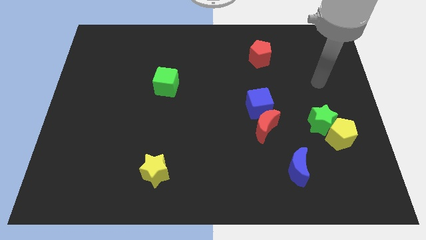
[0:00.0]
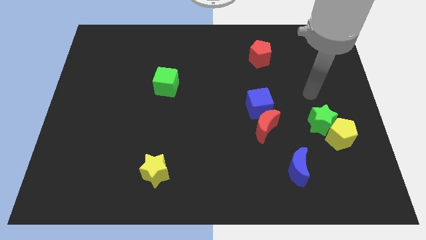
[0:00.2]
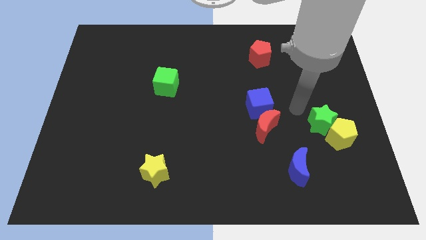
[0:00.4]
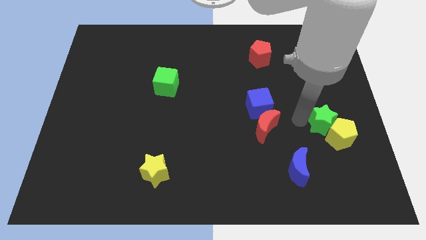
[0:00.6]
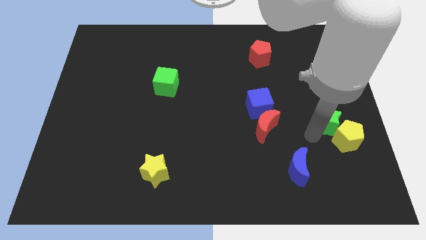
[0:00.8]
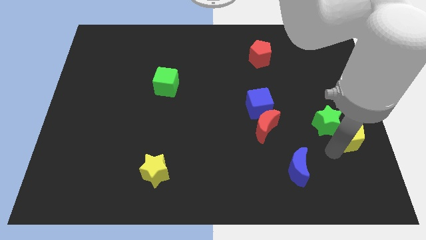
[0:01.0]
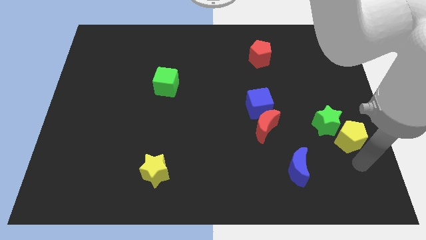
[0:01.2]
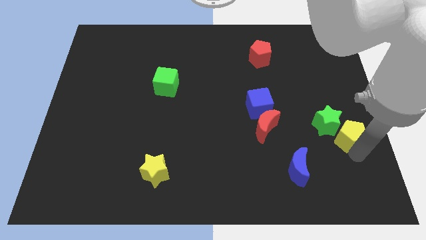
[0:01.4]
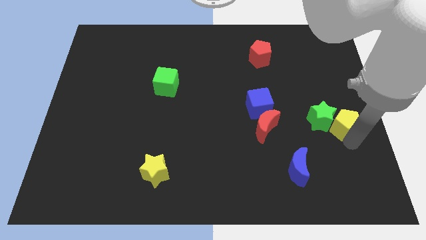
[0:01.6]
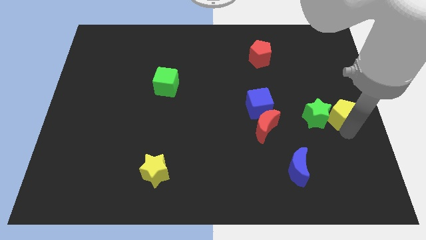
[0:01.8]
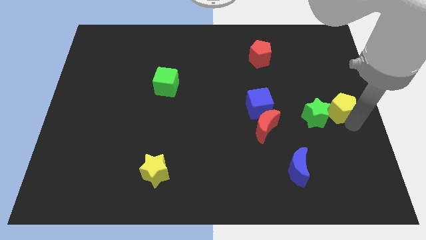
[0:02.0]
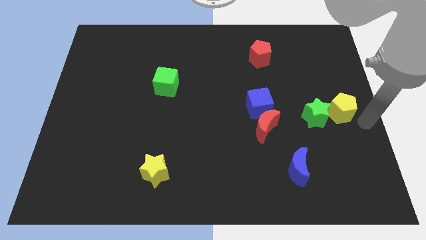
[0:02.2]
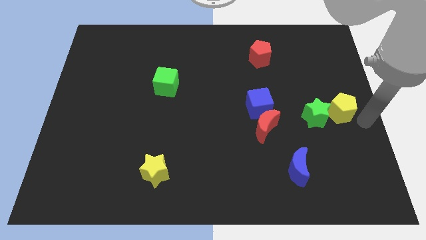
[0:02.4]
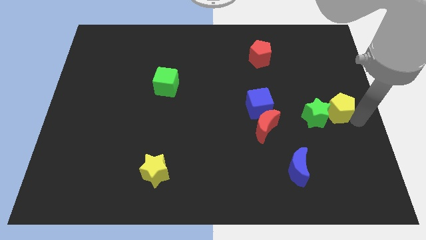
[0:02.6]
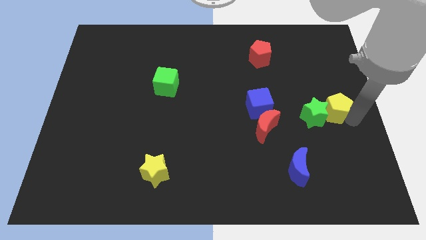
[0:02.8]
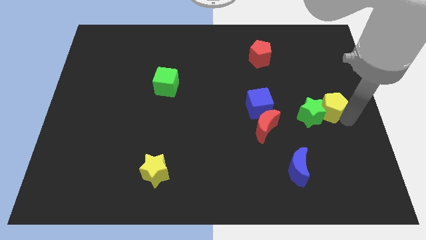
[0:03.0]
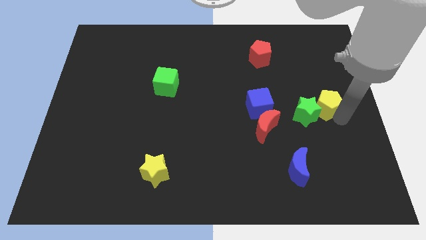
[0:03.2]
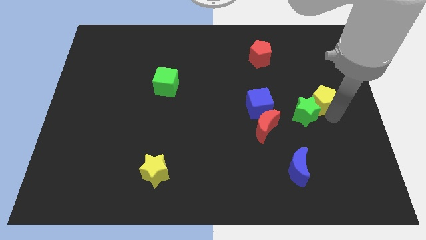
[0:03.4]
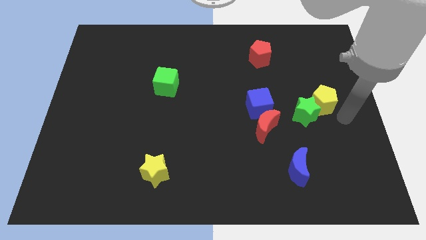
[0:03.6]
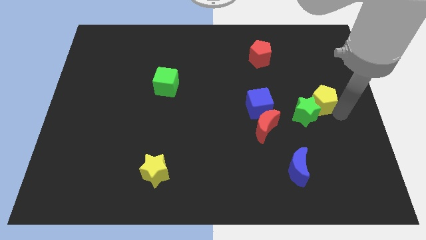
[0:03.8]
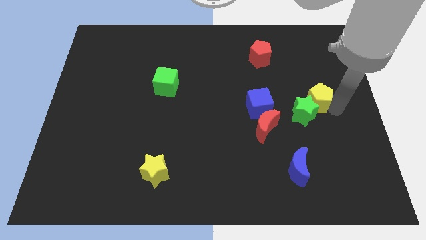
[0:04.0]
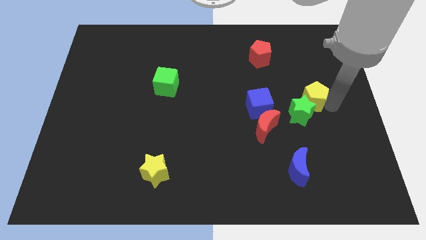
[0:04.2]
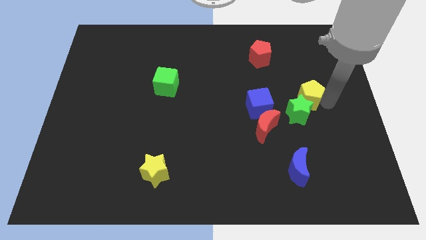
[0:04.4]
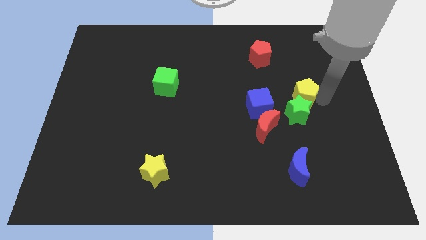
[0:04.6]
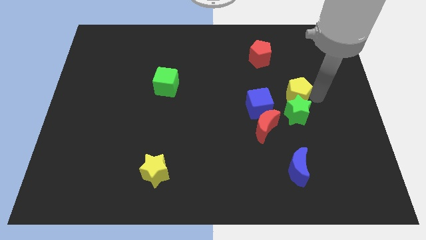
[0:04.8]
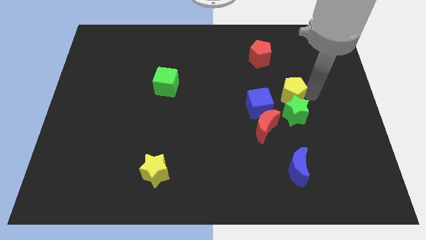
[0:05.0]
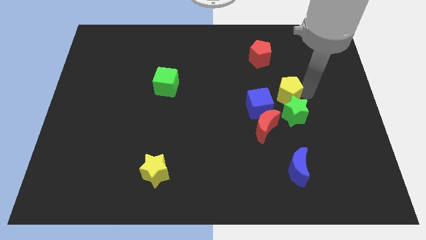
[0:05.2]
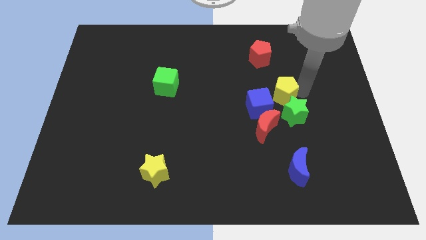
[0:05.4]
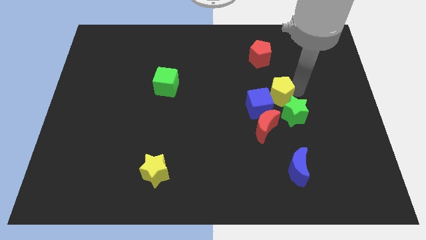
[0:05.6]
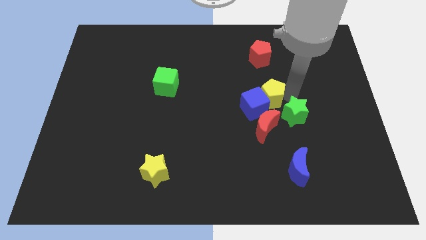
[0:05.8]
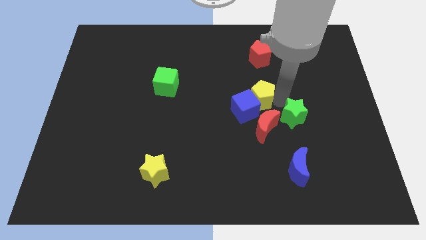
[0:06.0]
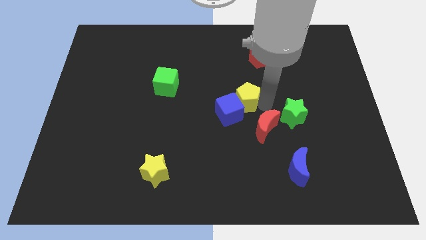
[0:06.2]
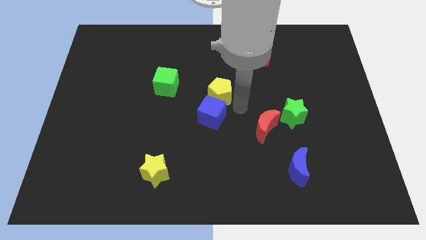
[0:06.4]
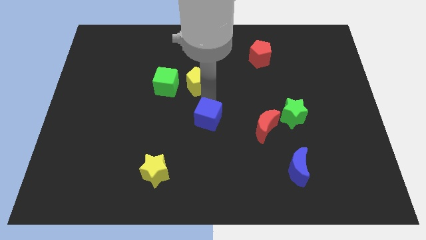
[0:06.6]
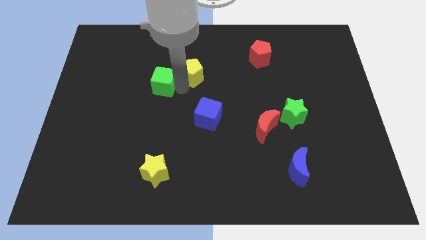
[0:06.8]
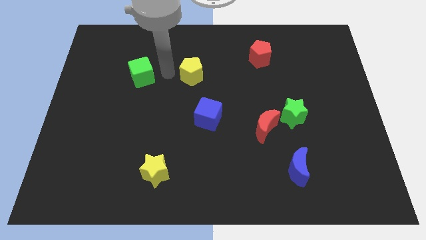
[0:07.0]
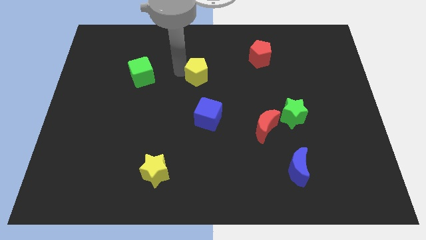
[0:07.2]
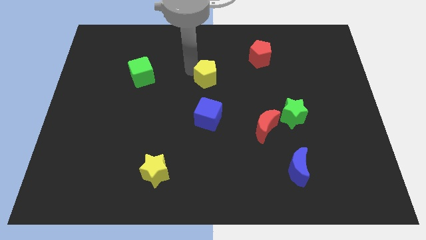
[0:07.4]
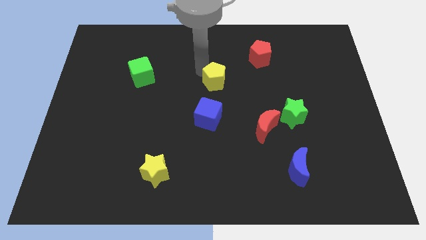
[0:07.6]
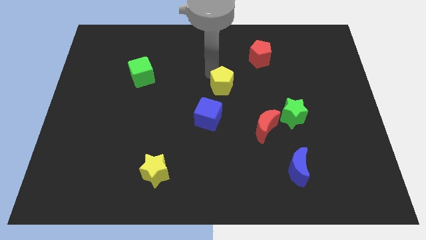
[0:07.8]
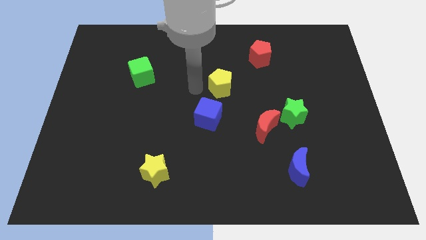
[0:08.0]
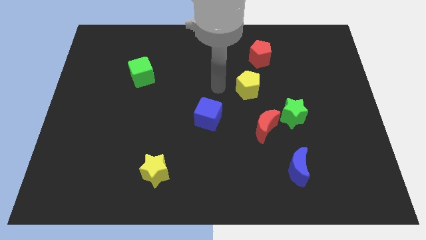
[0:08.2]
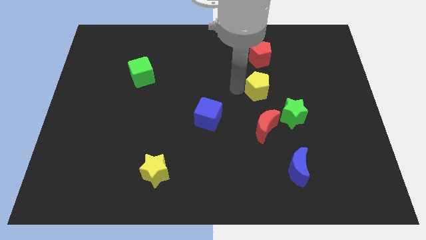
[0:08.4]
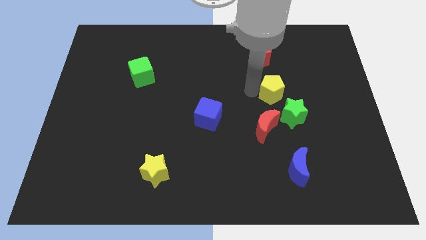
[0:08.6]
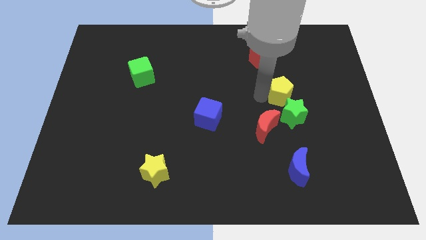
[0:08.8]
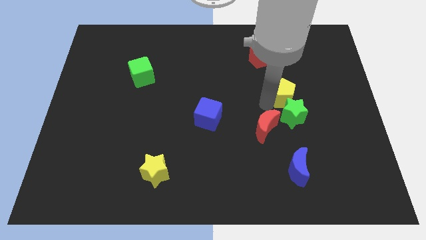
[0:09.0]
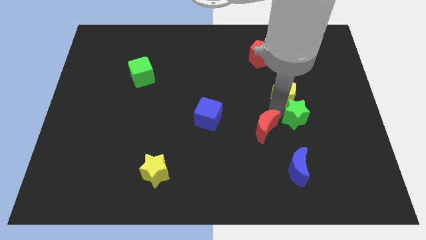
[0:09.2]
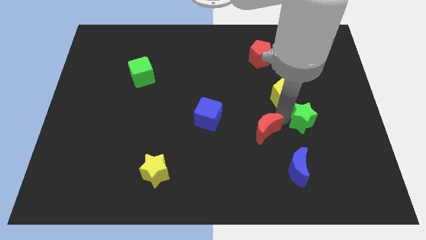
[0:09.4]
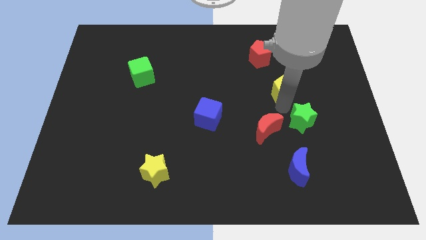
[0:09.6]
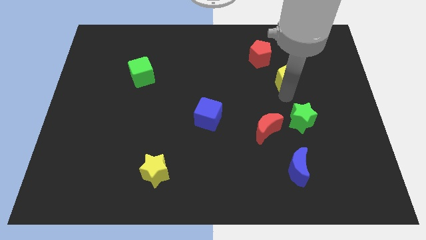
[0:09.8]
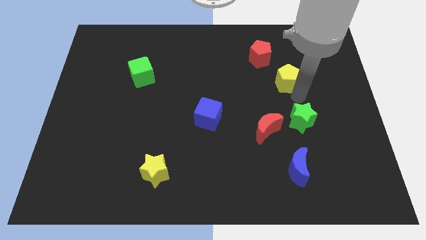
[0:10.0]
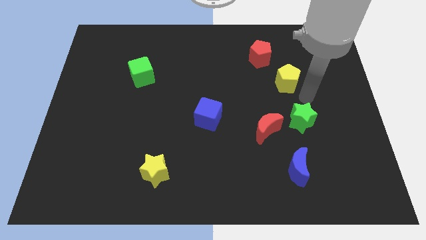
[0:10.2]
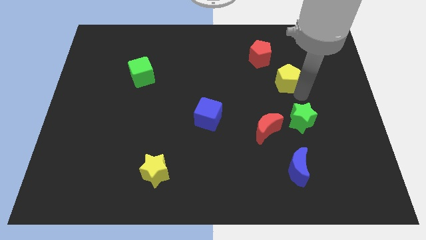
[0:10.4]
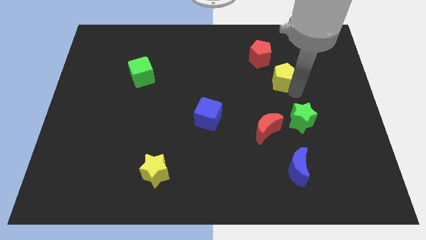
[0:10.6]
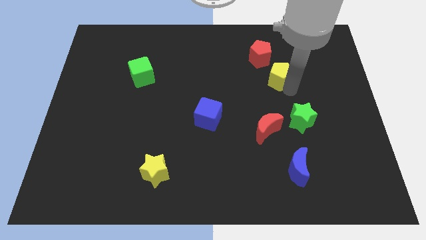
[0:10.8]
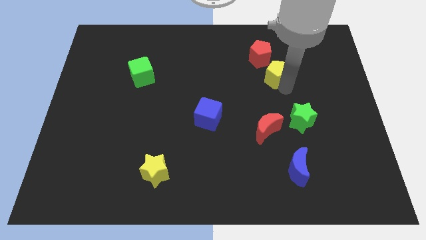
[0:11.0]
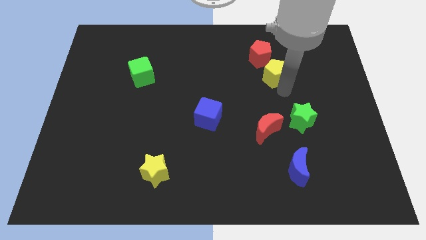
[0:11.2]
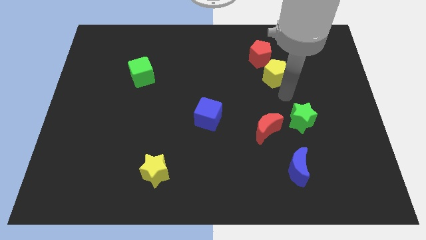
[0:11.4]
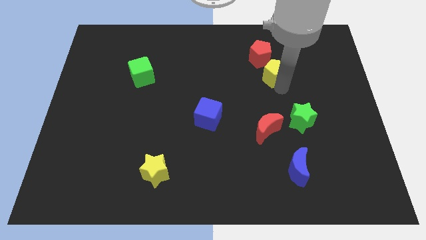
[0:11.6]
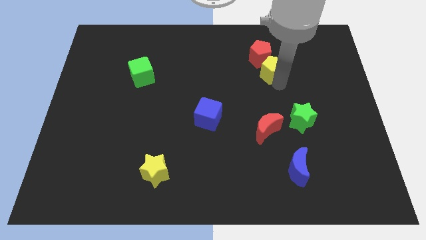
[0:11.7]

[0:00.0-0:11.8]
put the yellow pentagon to the red pentagon

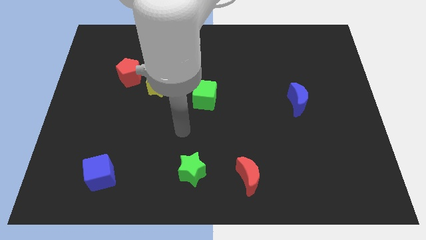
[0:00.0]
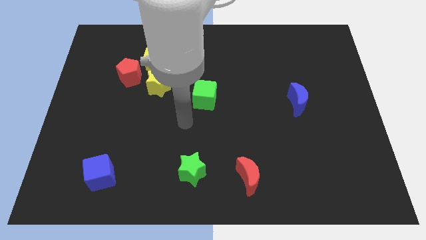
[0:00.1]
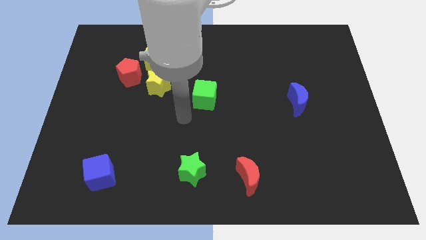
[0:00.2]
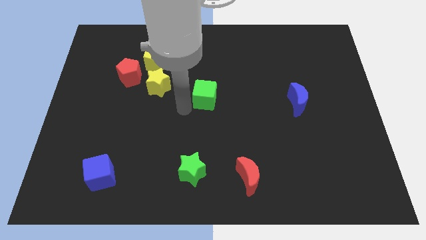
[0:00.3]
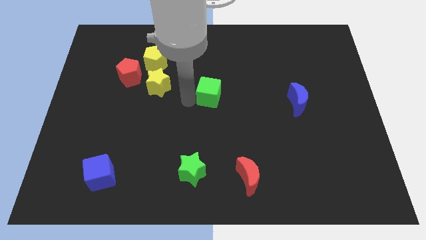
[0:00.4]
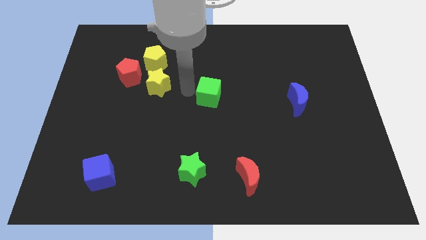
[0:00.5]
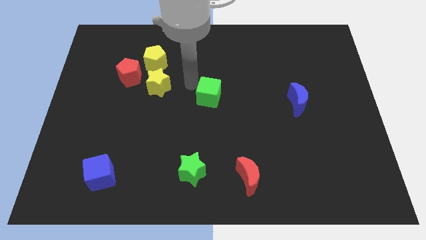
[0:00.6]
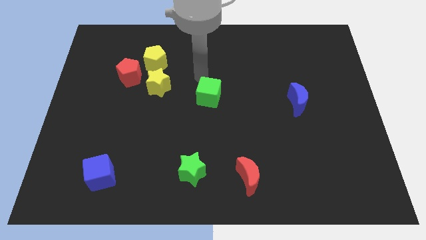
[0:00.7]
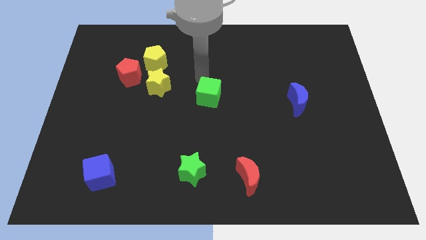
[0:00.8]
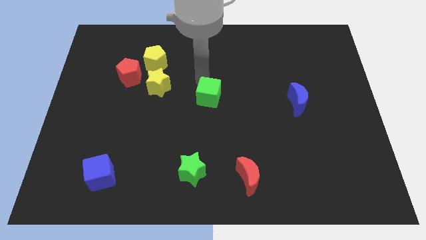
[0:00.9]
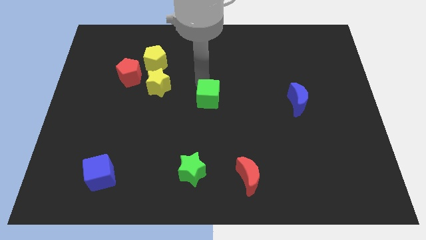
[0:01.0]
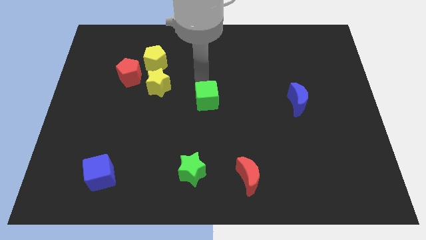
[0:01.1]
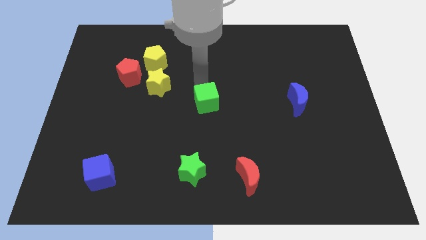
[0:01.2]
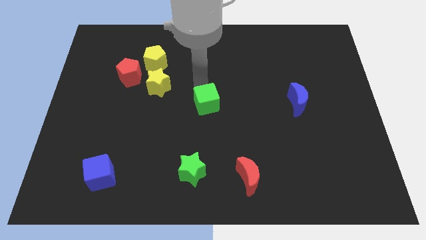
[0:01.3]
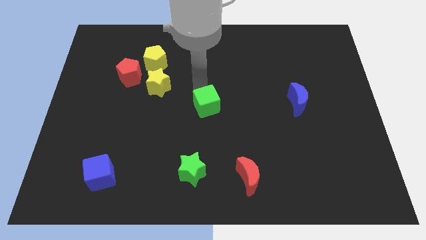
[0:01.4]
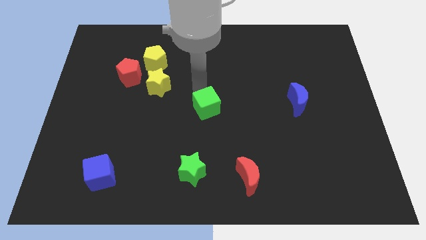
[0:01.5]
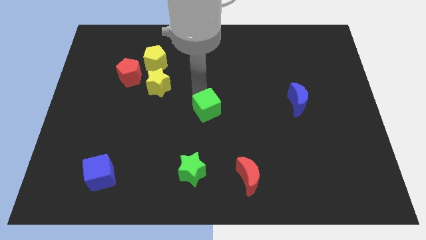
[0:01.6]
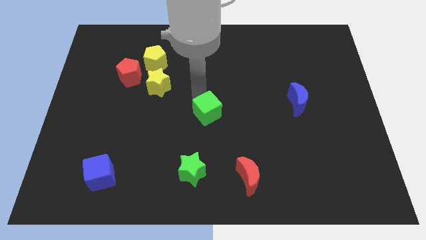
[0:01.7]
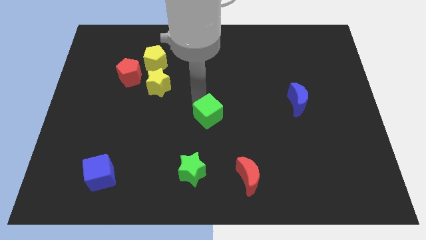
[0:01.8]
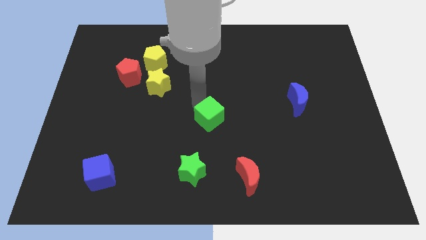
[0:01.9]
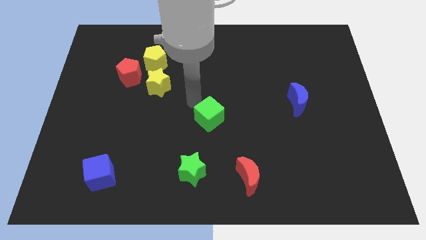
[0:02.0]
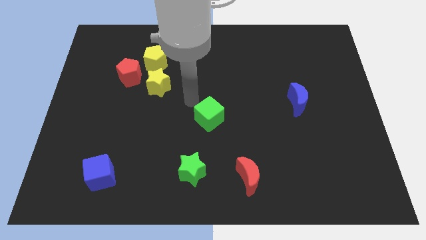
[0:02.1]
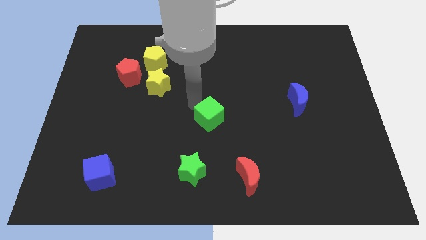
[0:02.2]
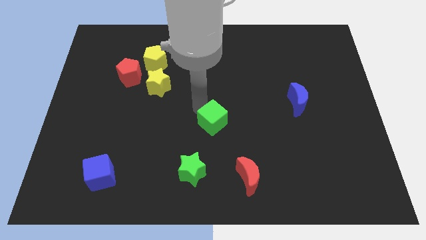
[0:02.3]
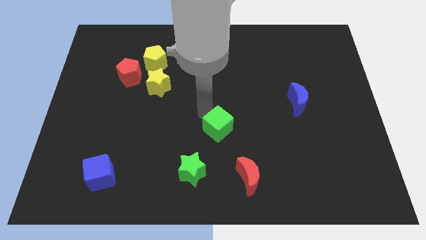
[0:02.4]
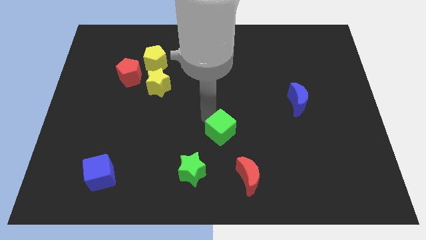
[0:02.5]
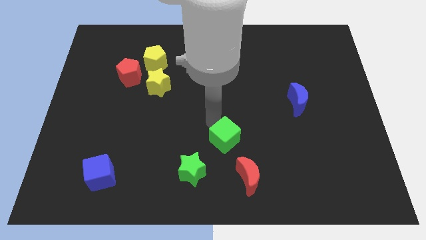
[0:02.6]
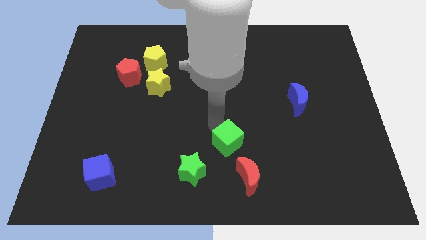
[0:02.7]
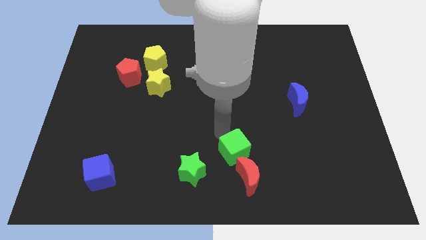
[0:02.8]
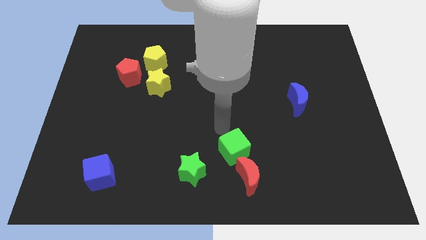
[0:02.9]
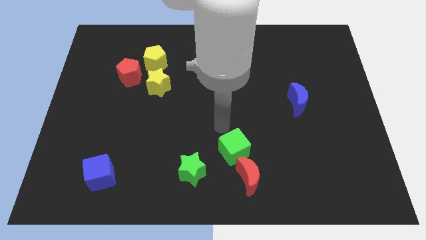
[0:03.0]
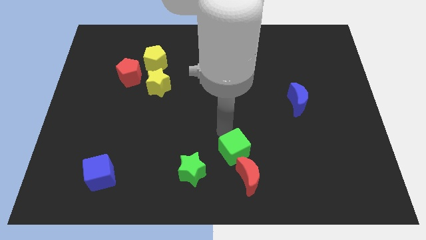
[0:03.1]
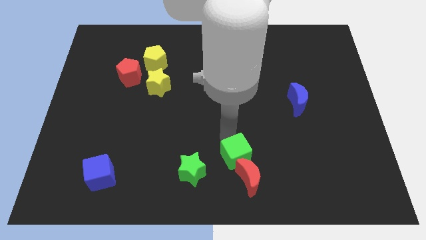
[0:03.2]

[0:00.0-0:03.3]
slide the green cube close to the red moon
